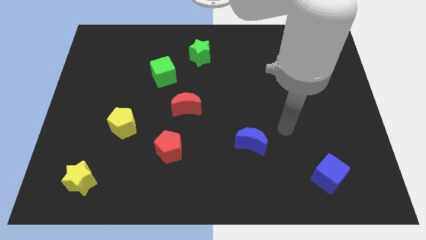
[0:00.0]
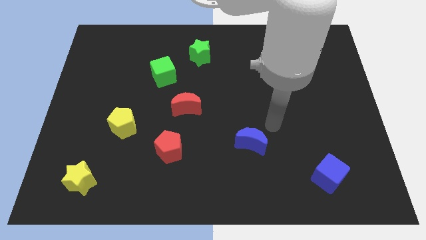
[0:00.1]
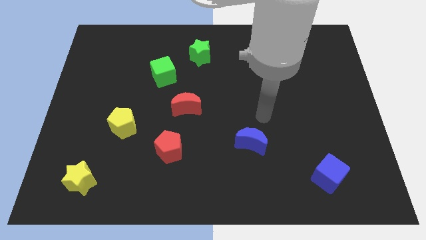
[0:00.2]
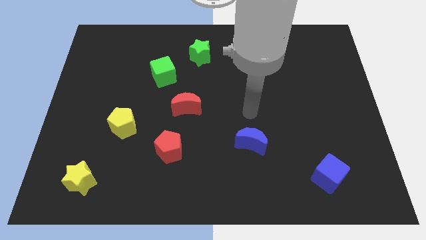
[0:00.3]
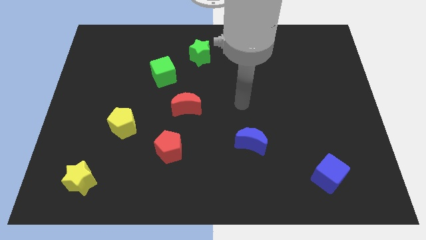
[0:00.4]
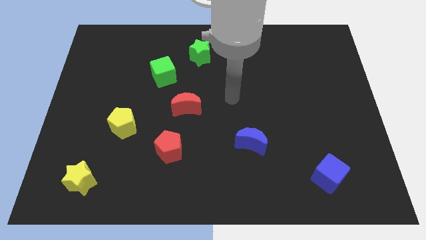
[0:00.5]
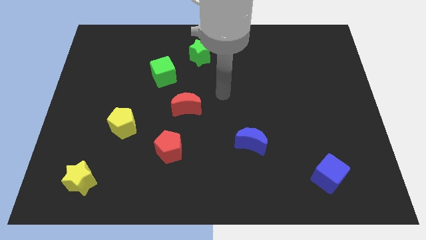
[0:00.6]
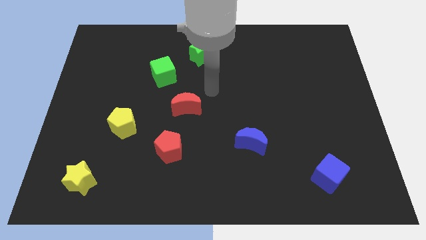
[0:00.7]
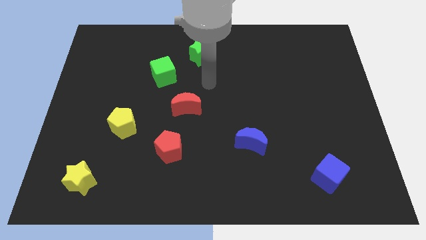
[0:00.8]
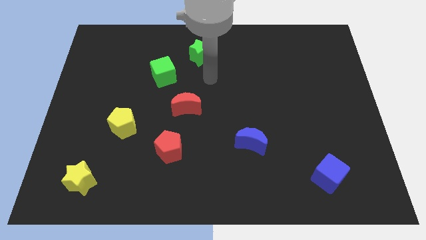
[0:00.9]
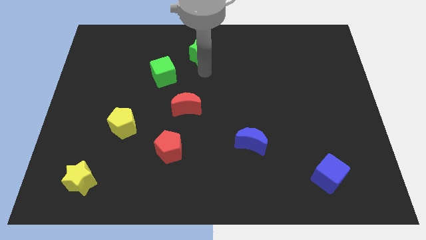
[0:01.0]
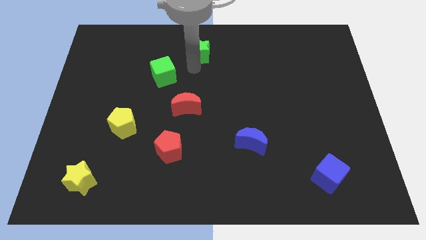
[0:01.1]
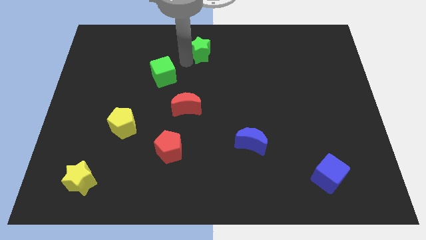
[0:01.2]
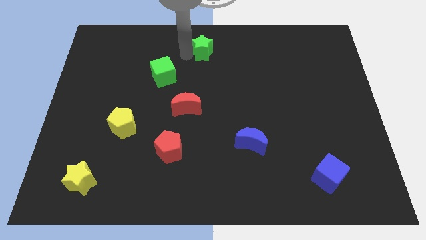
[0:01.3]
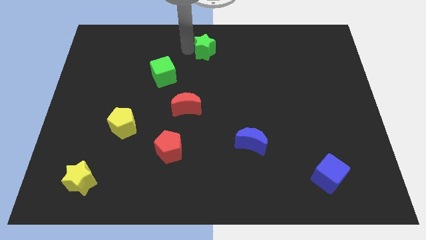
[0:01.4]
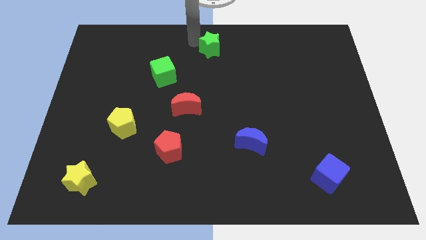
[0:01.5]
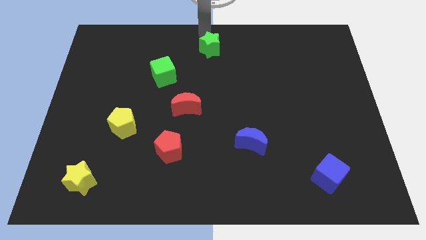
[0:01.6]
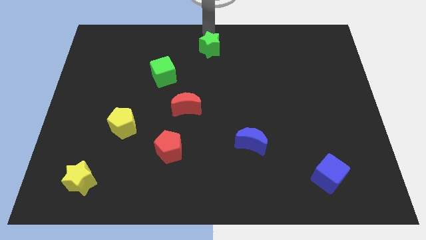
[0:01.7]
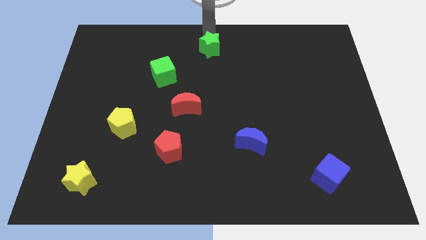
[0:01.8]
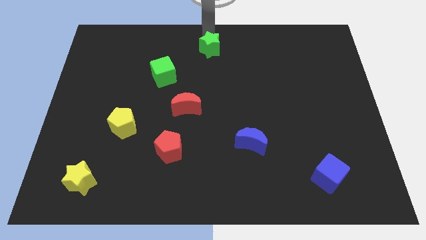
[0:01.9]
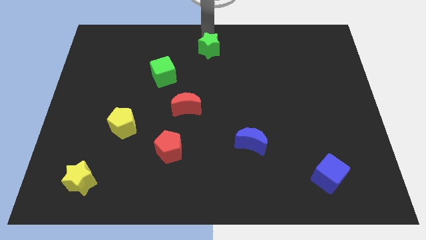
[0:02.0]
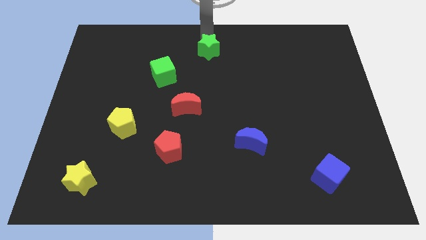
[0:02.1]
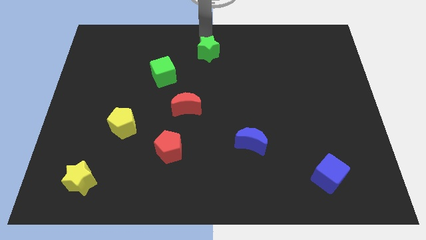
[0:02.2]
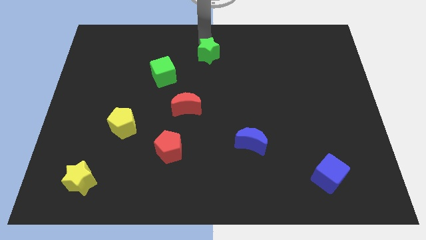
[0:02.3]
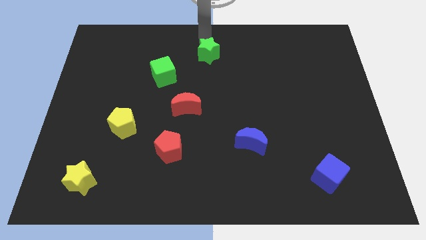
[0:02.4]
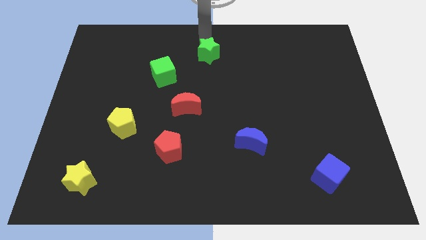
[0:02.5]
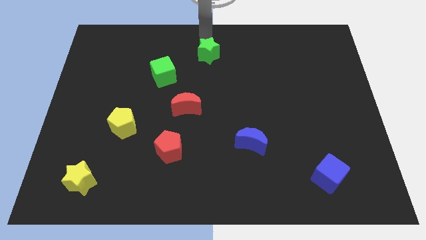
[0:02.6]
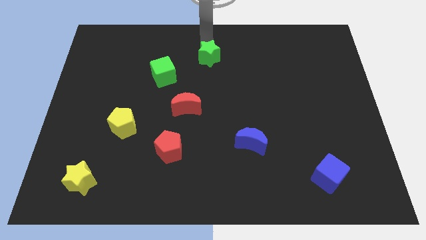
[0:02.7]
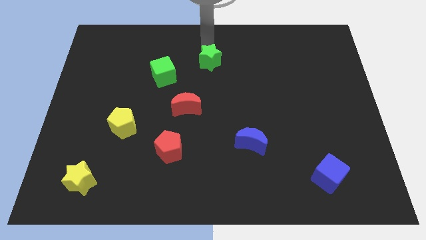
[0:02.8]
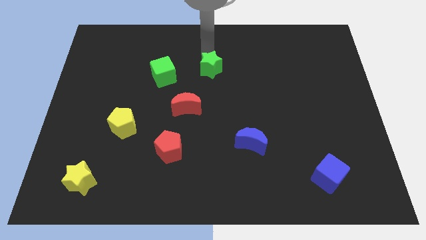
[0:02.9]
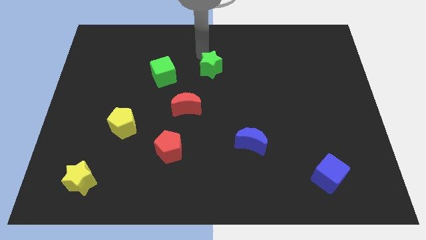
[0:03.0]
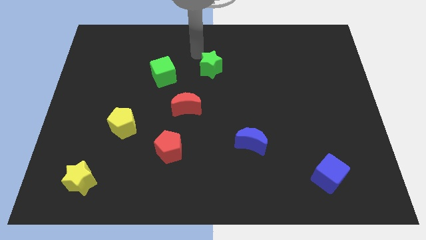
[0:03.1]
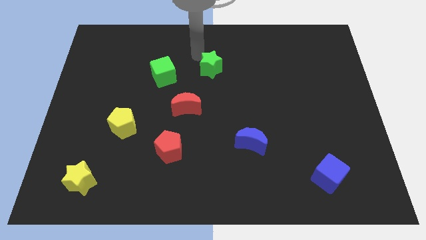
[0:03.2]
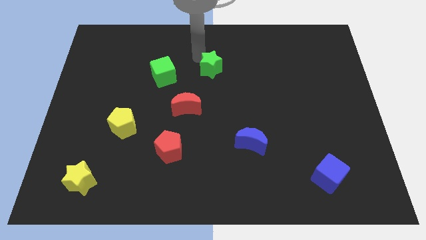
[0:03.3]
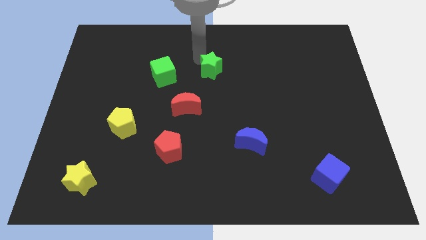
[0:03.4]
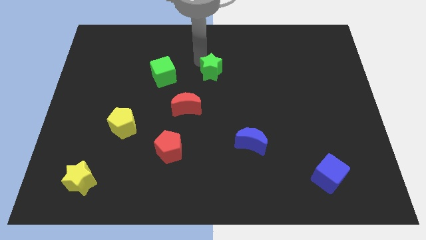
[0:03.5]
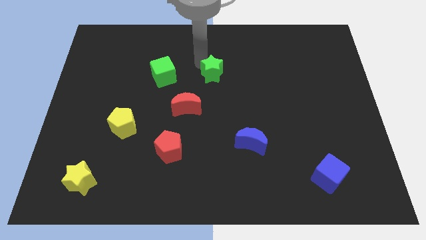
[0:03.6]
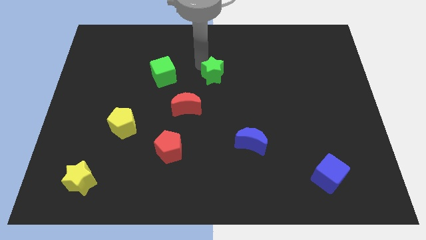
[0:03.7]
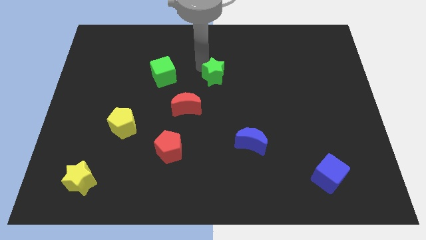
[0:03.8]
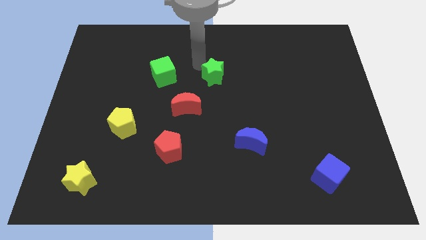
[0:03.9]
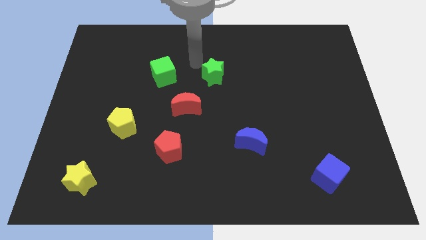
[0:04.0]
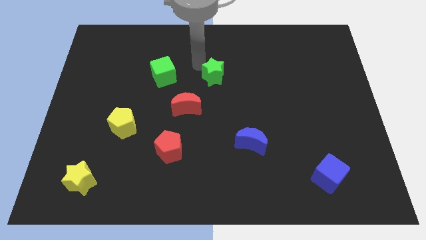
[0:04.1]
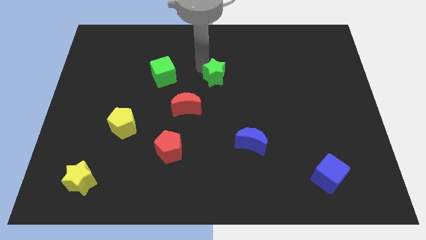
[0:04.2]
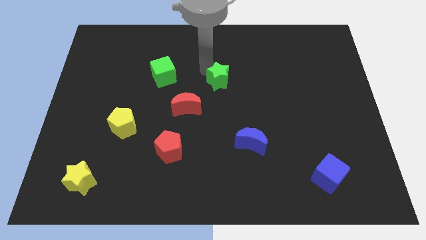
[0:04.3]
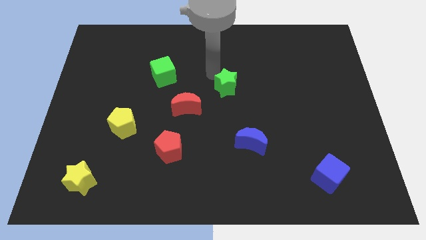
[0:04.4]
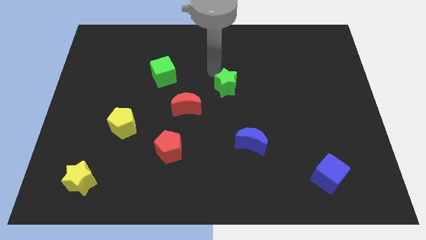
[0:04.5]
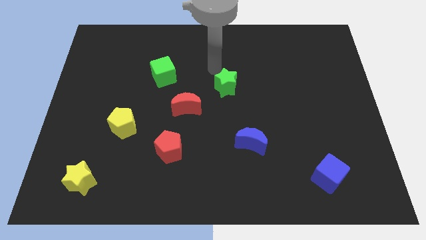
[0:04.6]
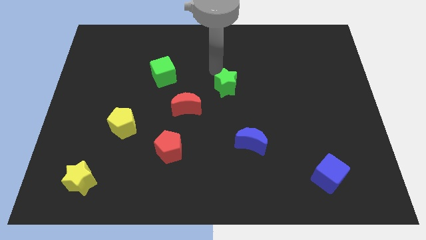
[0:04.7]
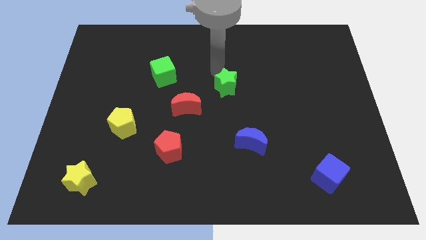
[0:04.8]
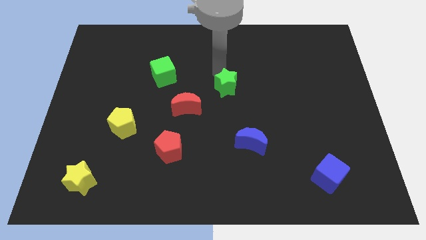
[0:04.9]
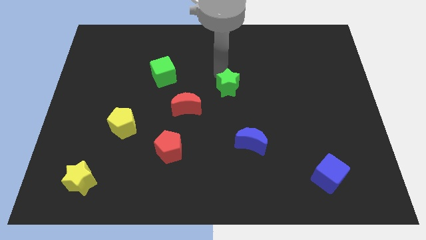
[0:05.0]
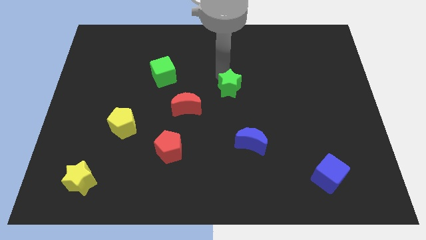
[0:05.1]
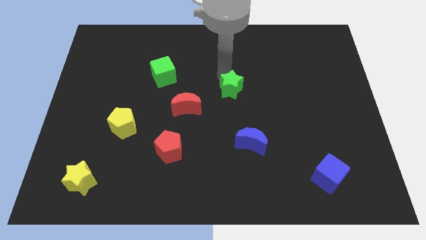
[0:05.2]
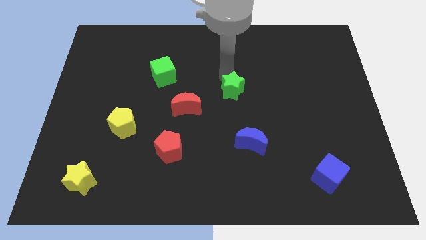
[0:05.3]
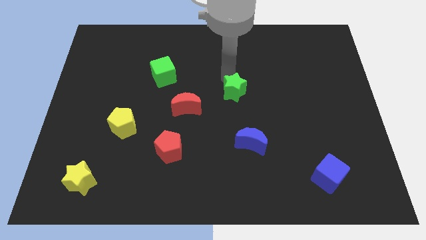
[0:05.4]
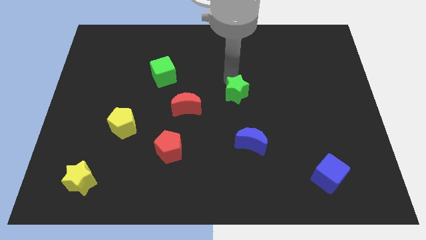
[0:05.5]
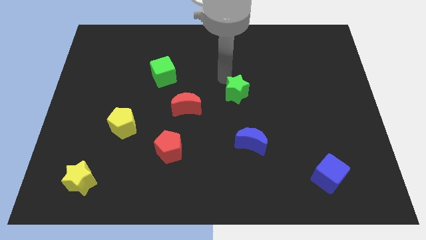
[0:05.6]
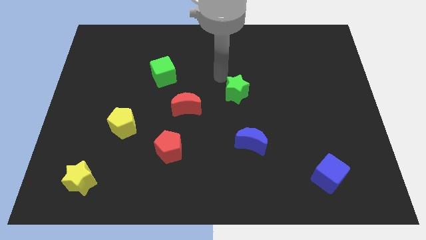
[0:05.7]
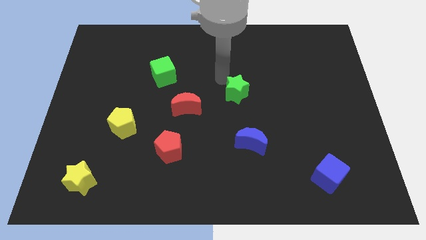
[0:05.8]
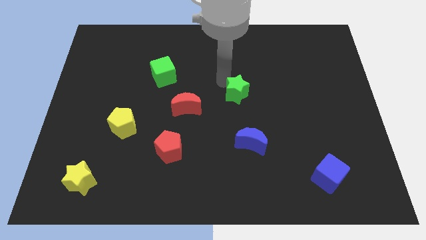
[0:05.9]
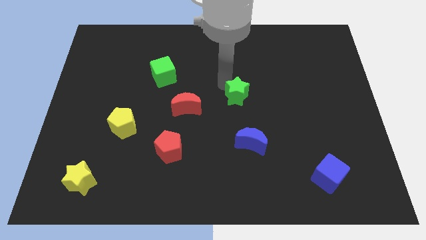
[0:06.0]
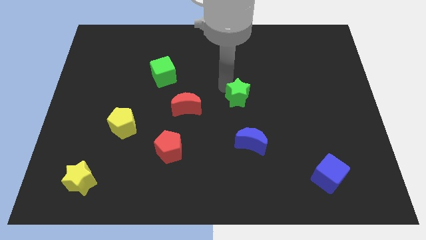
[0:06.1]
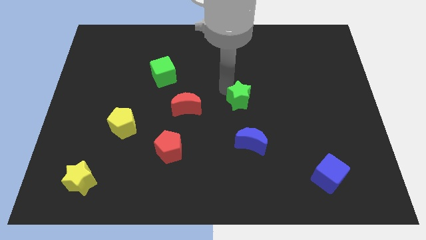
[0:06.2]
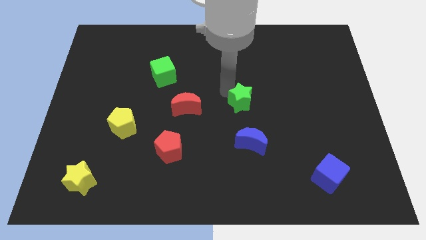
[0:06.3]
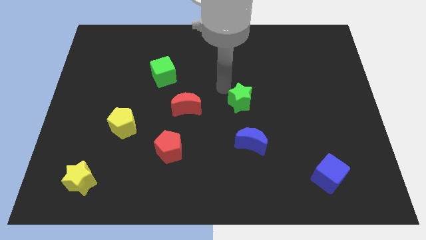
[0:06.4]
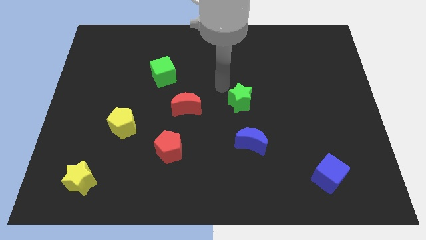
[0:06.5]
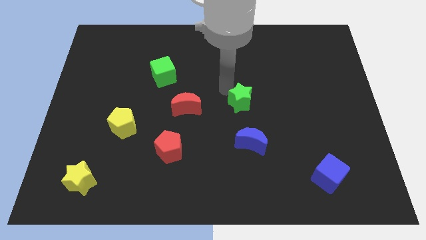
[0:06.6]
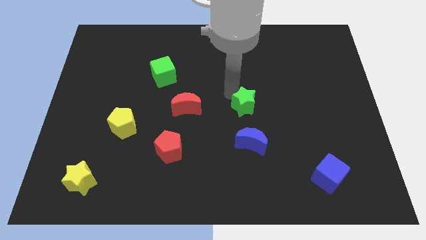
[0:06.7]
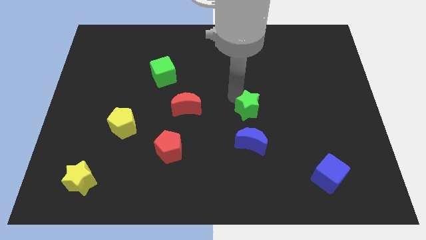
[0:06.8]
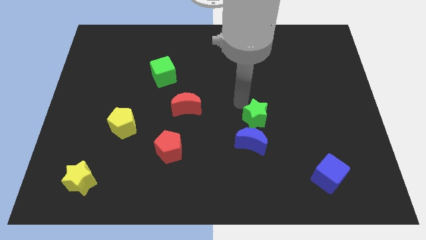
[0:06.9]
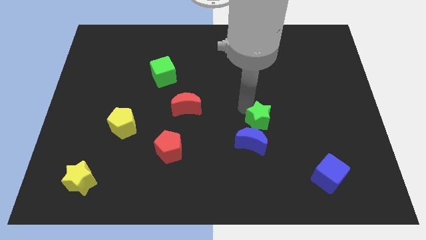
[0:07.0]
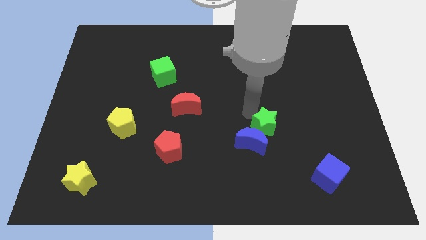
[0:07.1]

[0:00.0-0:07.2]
push the green star to the right of the blue moon
